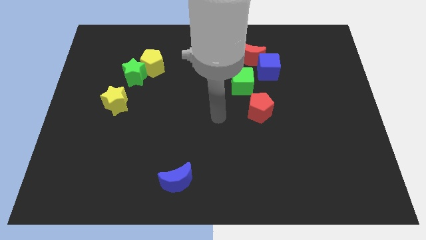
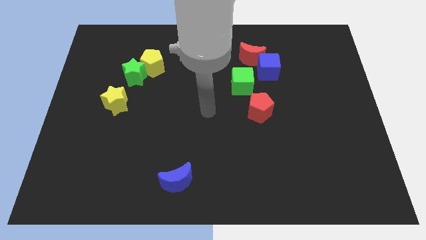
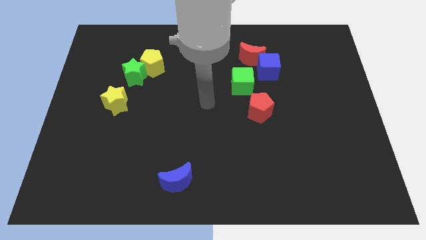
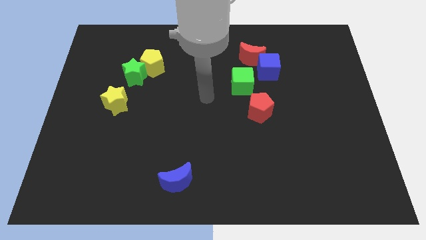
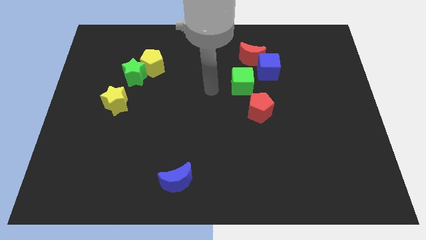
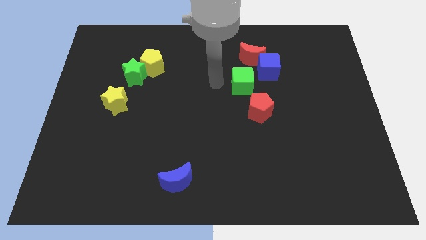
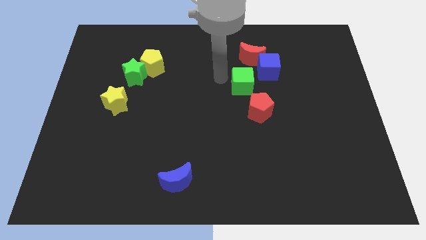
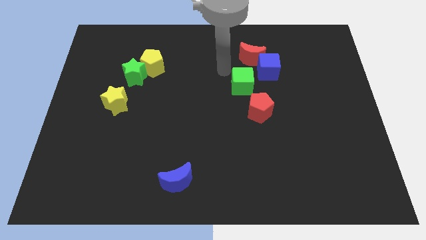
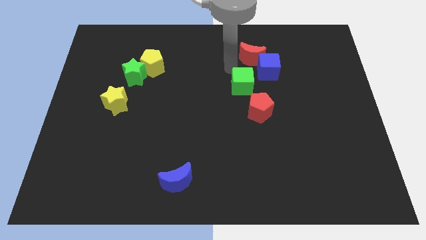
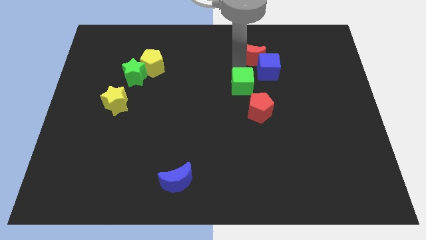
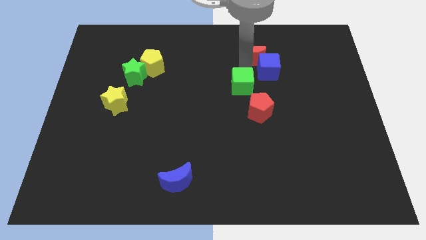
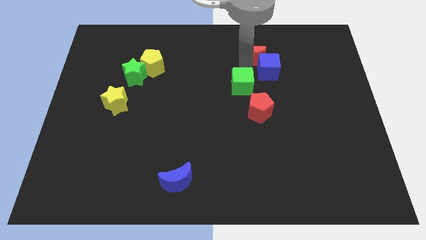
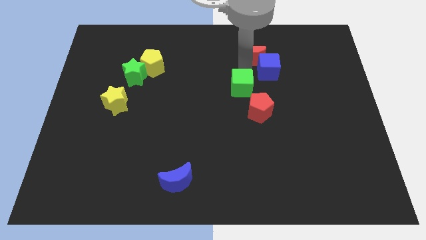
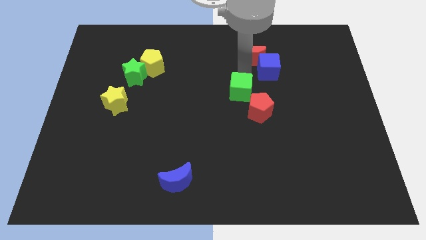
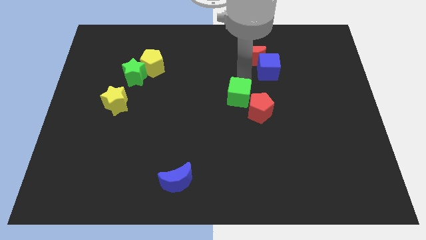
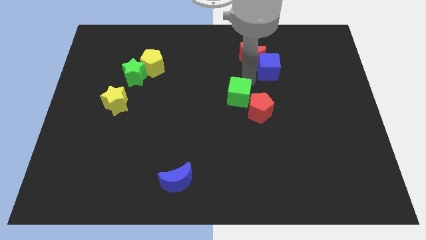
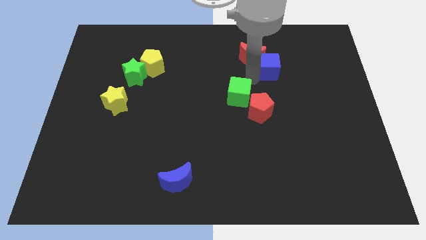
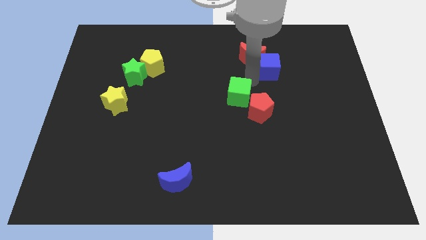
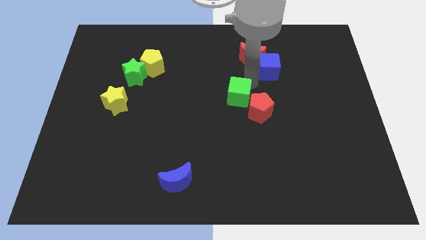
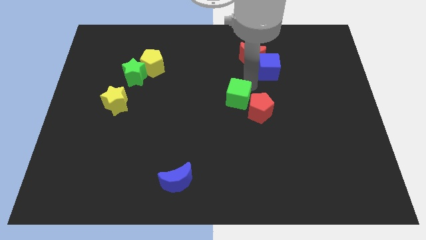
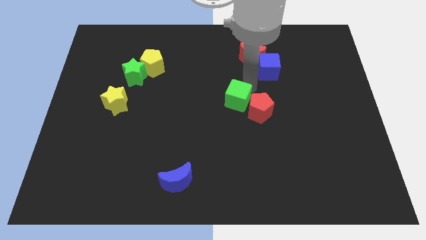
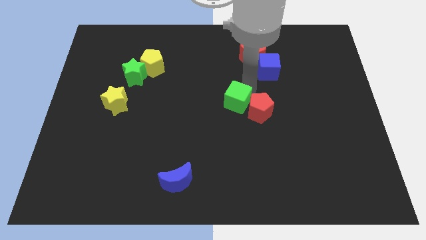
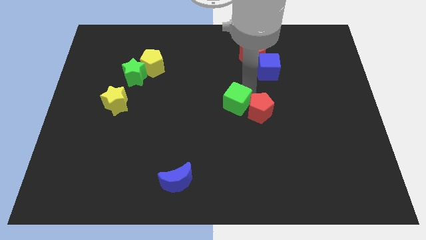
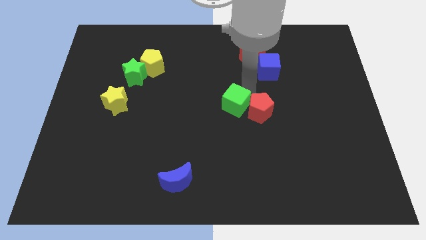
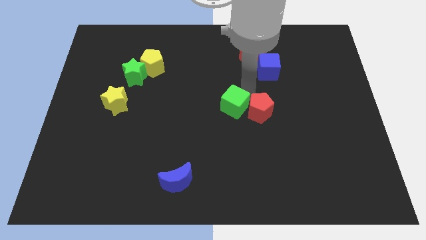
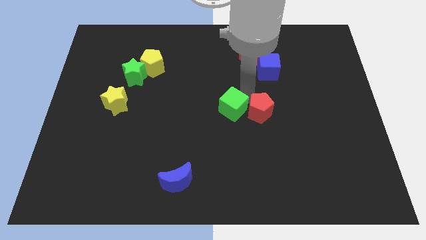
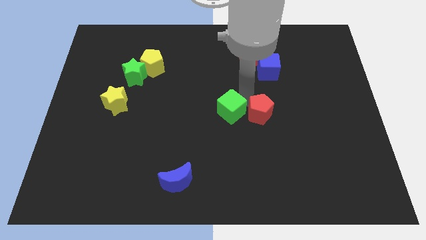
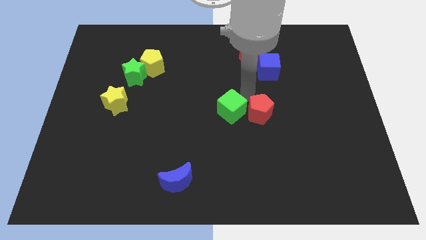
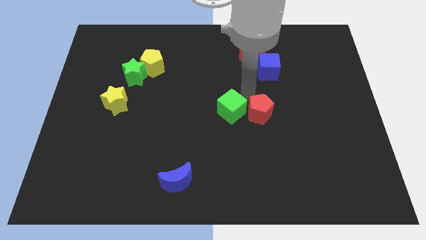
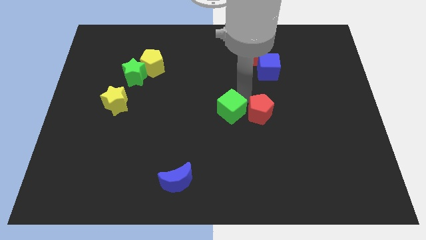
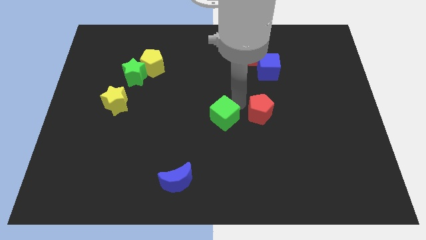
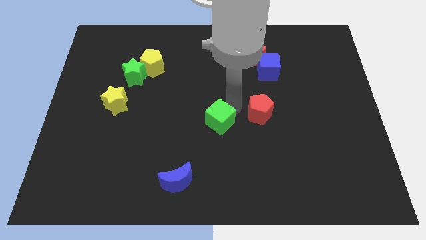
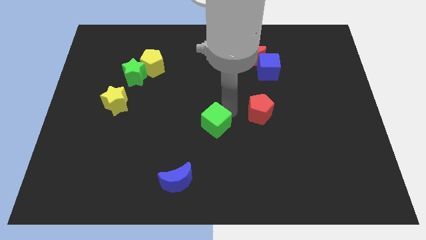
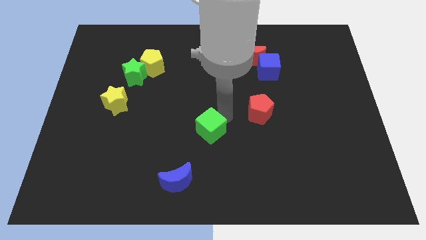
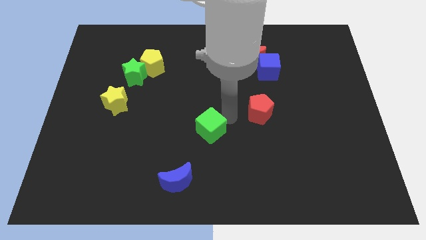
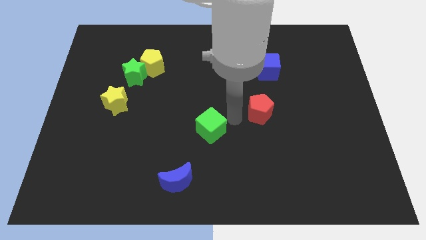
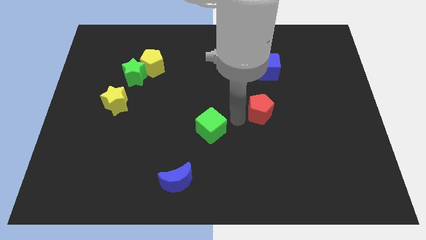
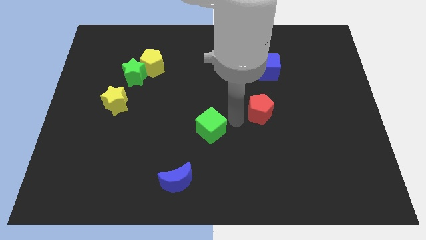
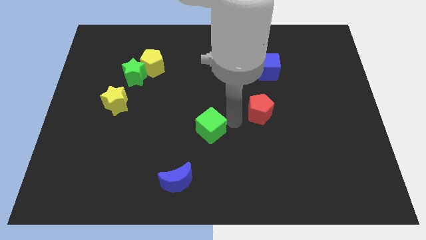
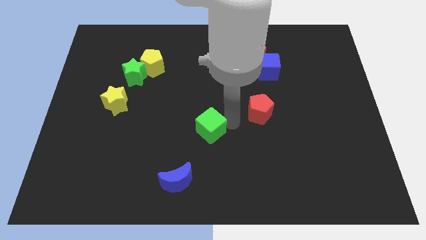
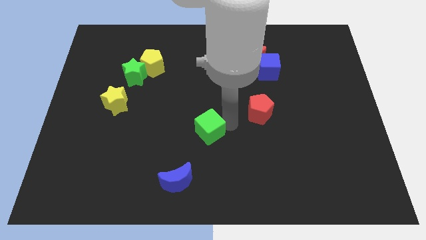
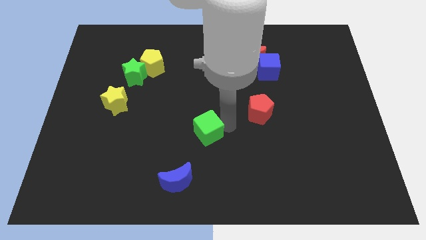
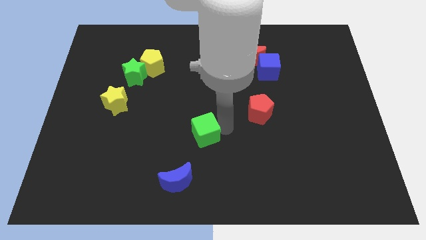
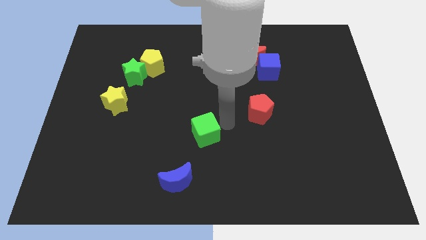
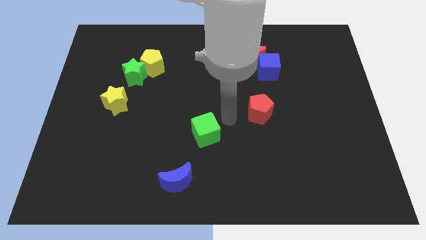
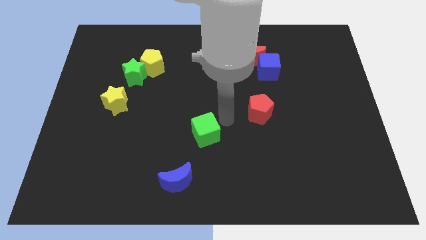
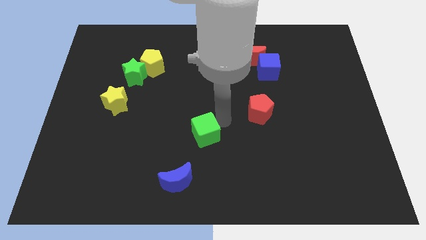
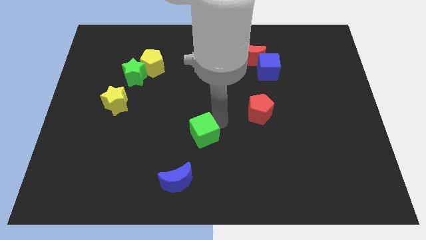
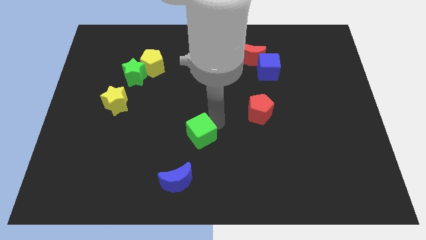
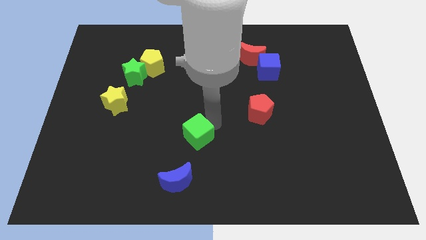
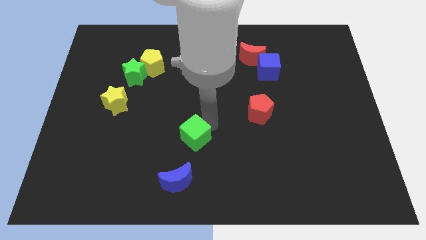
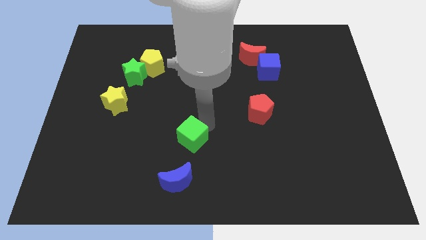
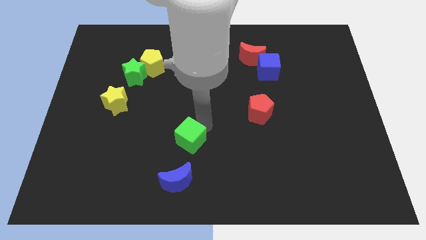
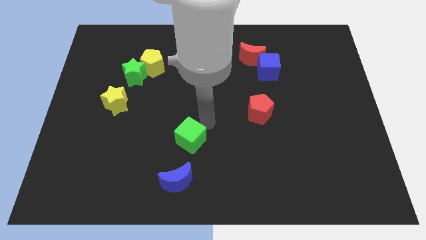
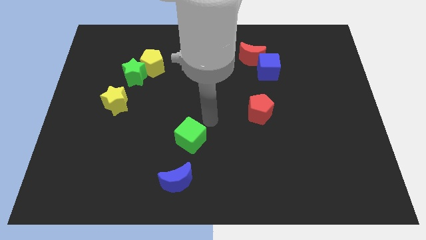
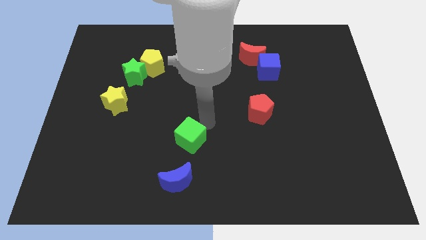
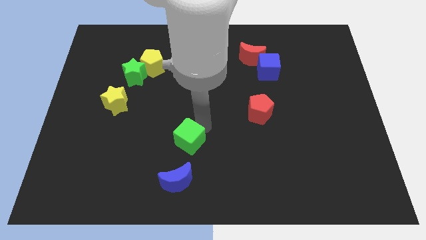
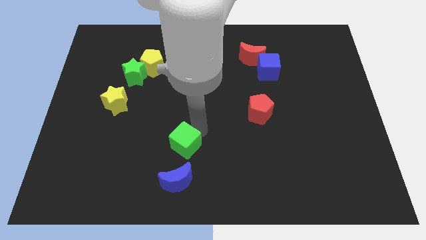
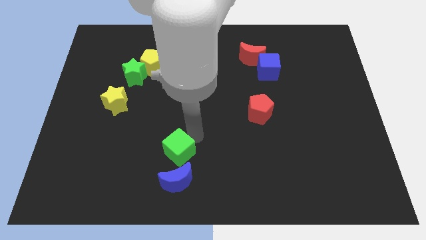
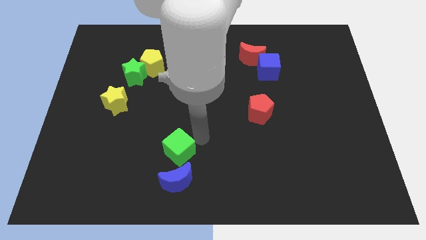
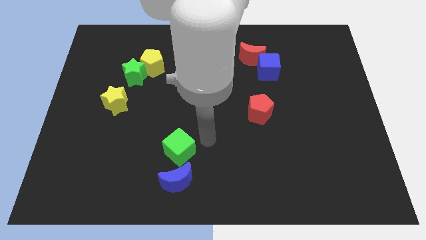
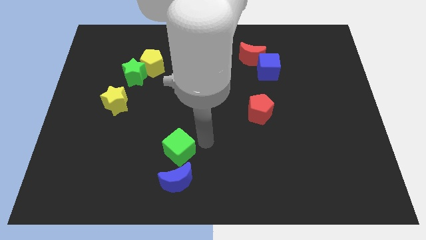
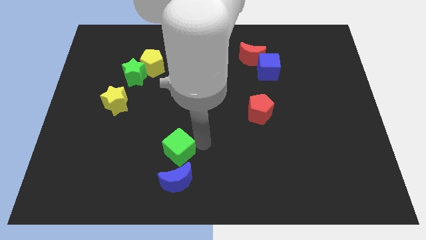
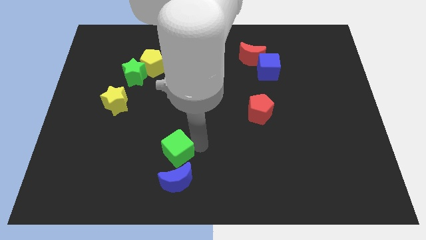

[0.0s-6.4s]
put the green cube to the top left side of the blue moon
